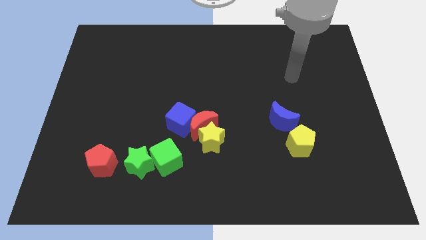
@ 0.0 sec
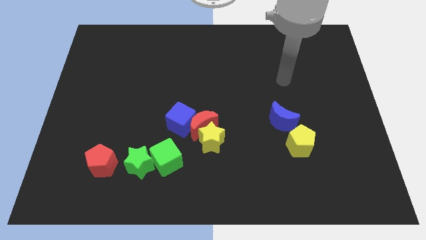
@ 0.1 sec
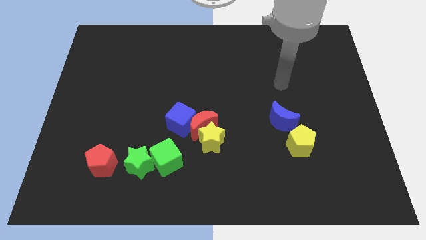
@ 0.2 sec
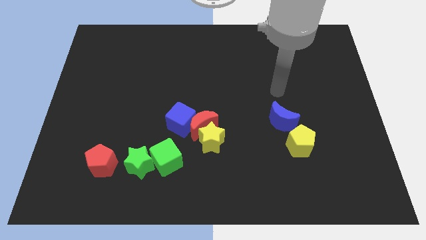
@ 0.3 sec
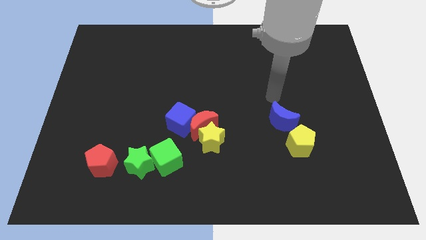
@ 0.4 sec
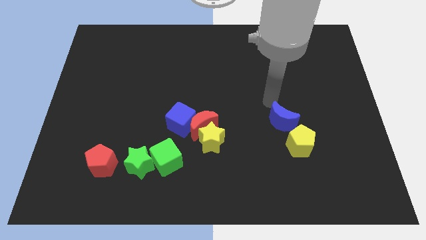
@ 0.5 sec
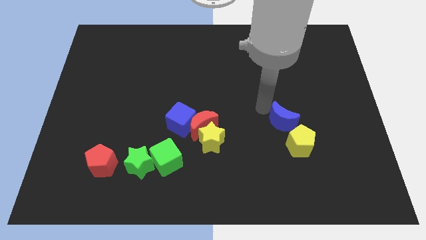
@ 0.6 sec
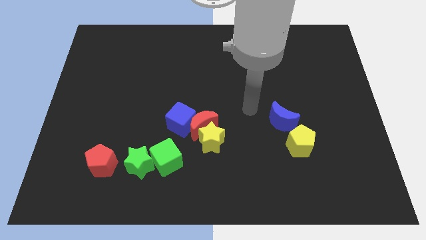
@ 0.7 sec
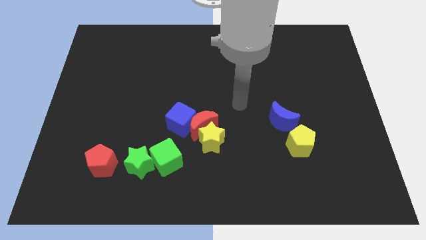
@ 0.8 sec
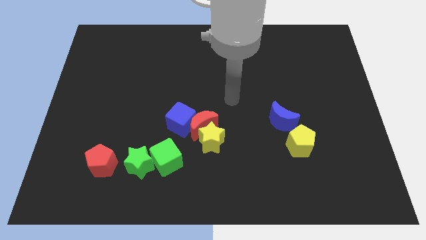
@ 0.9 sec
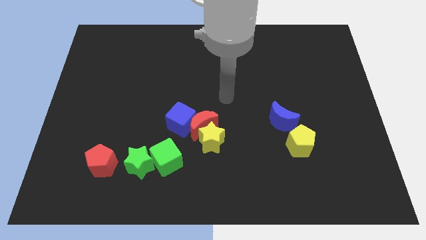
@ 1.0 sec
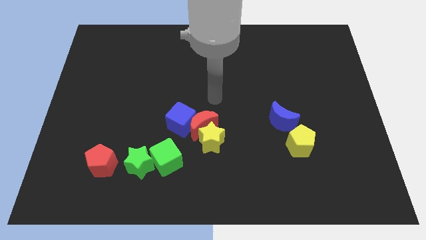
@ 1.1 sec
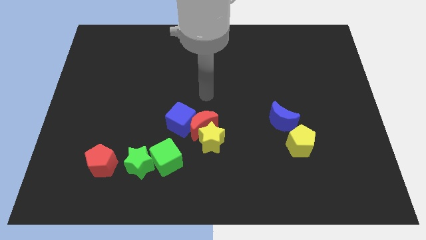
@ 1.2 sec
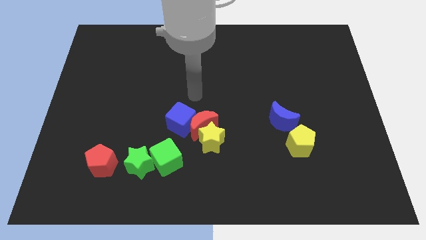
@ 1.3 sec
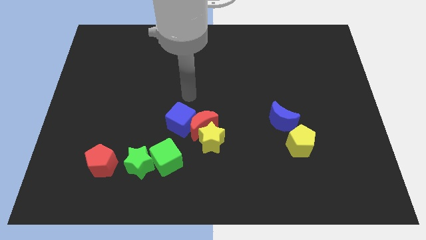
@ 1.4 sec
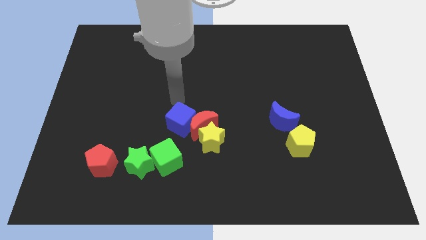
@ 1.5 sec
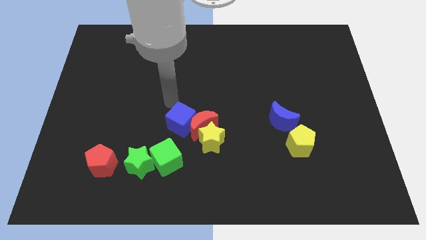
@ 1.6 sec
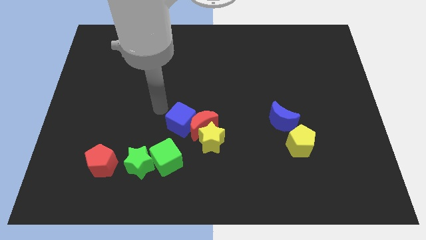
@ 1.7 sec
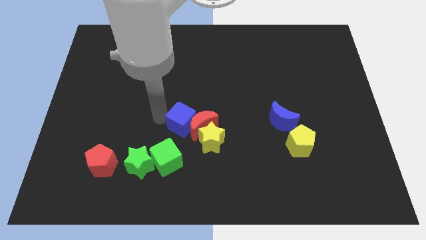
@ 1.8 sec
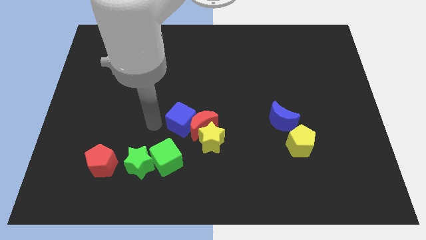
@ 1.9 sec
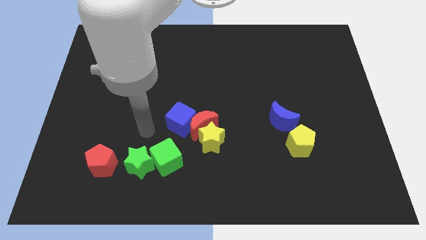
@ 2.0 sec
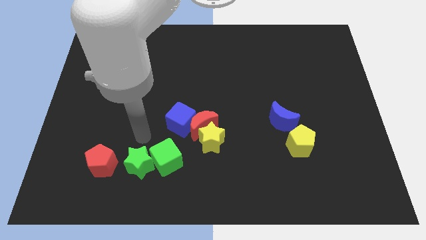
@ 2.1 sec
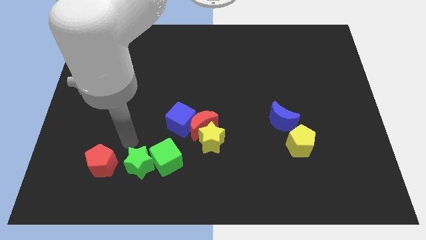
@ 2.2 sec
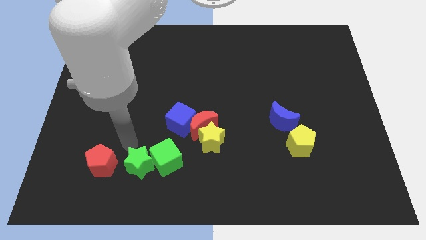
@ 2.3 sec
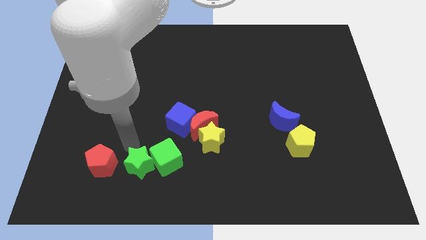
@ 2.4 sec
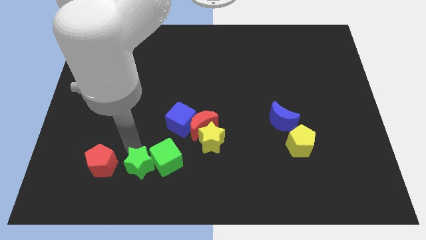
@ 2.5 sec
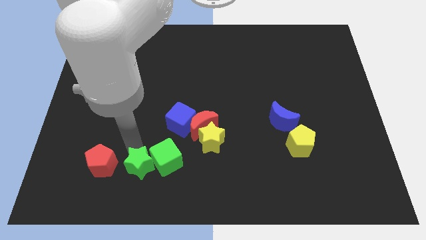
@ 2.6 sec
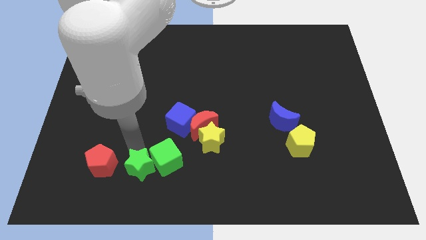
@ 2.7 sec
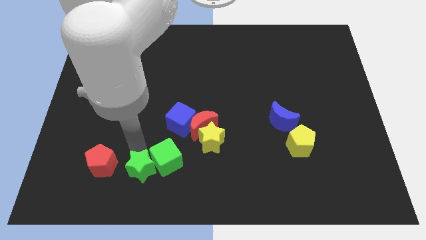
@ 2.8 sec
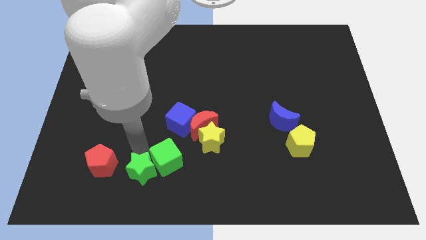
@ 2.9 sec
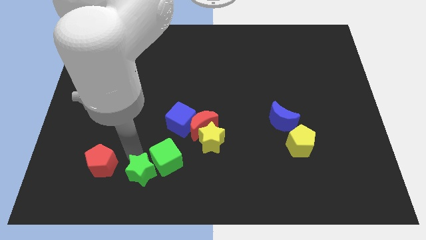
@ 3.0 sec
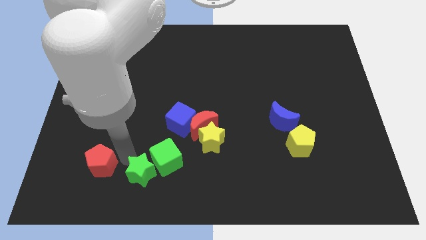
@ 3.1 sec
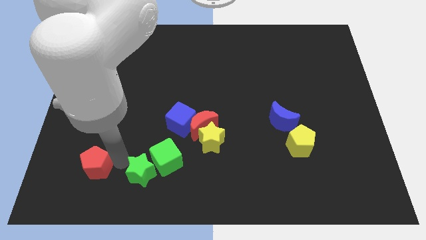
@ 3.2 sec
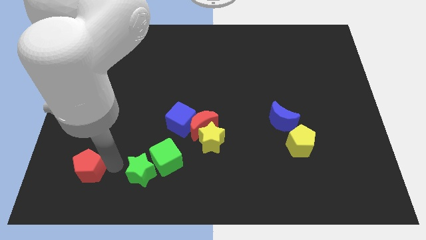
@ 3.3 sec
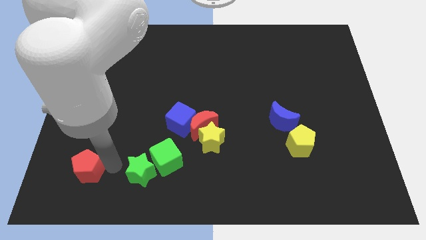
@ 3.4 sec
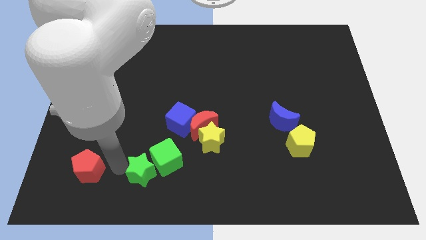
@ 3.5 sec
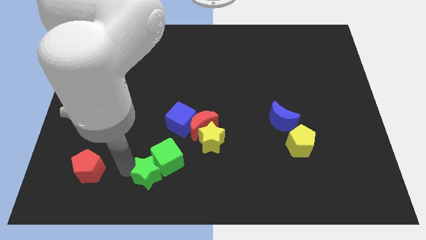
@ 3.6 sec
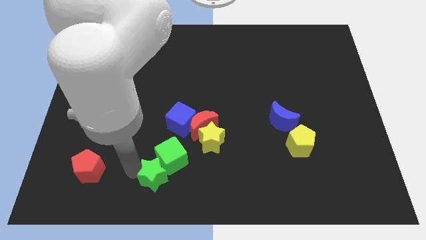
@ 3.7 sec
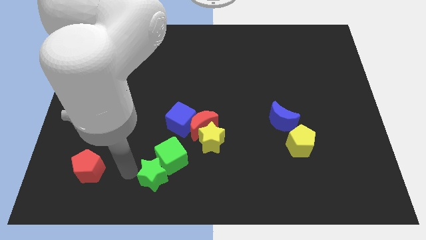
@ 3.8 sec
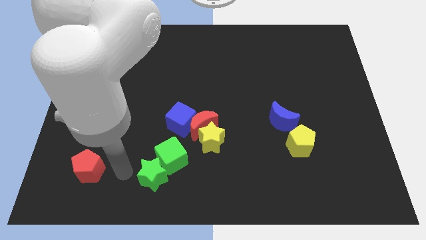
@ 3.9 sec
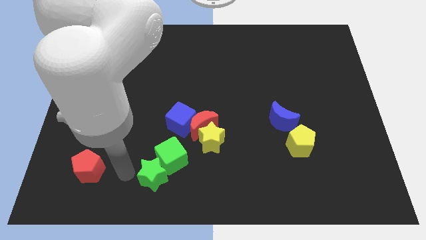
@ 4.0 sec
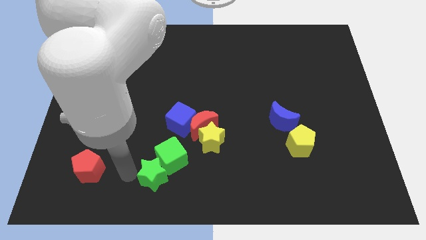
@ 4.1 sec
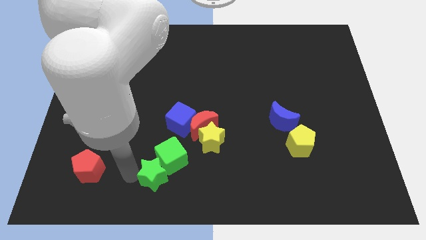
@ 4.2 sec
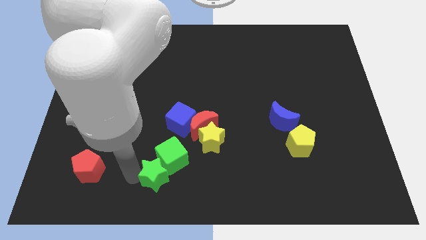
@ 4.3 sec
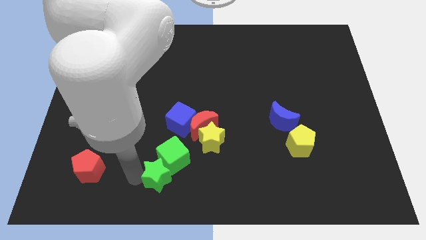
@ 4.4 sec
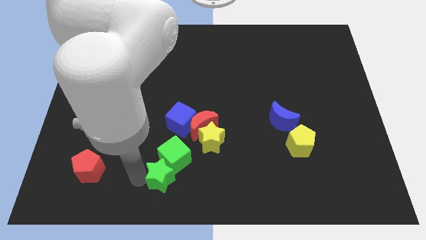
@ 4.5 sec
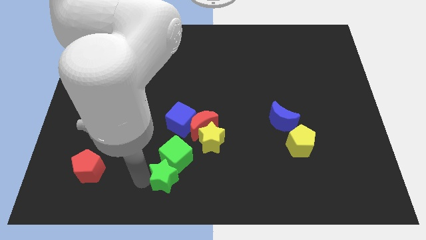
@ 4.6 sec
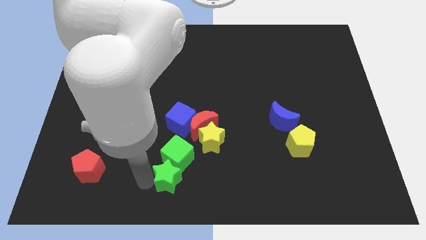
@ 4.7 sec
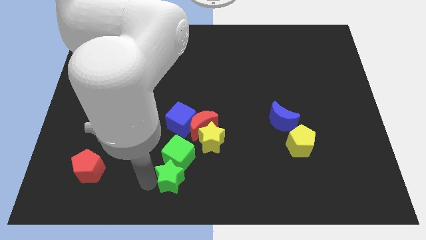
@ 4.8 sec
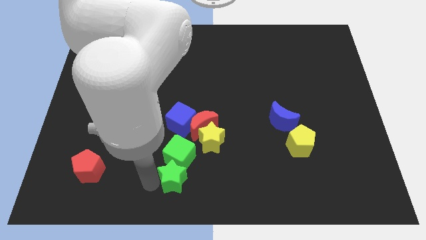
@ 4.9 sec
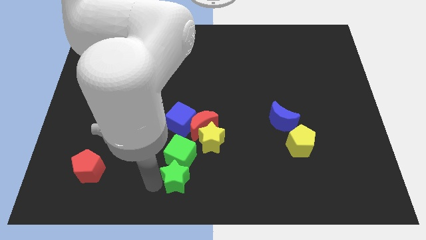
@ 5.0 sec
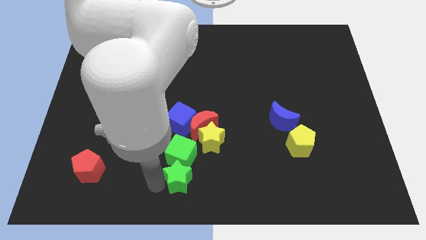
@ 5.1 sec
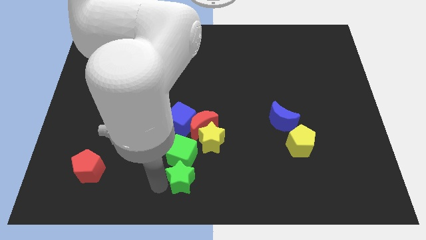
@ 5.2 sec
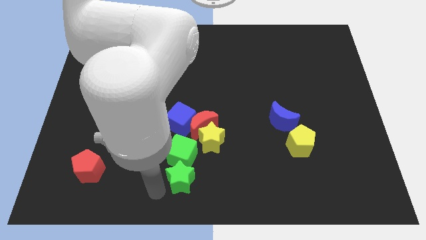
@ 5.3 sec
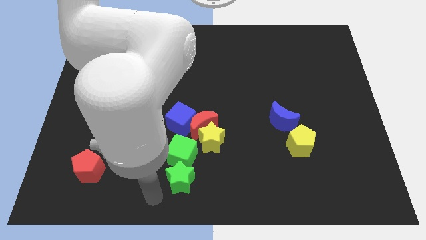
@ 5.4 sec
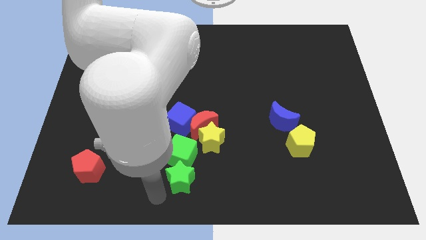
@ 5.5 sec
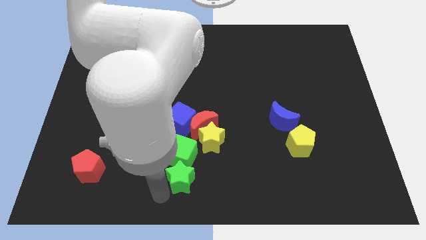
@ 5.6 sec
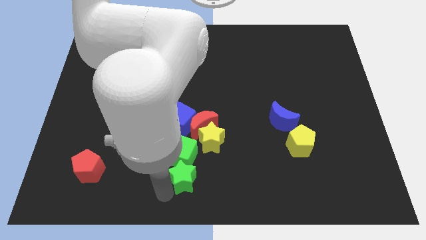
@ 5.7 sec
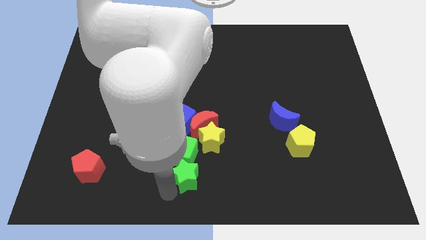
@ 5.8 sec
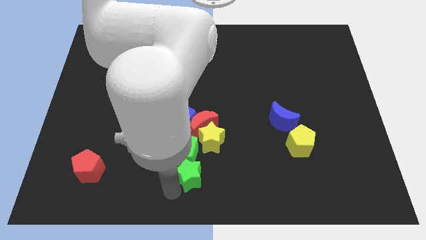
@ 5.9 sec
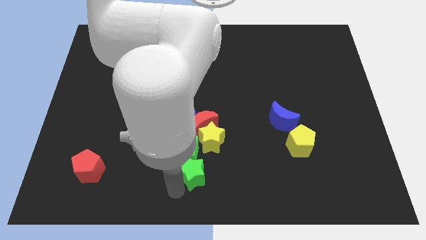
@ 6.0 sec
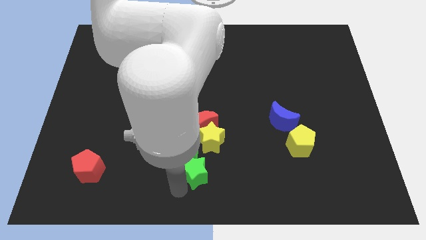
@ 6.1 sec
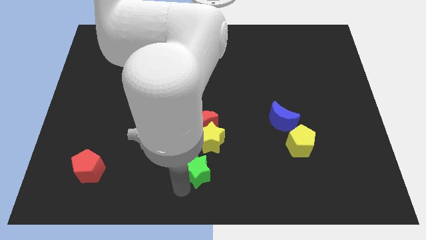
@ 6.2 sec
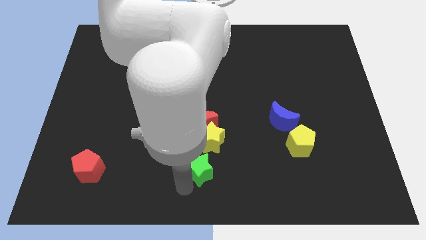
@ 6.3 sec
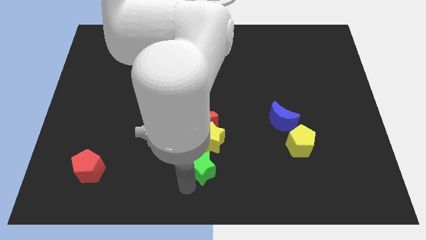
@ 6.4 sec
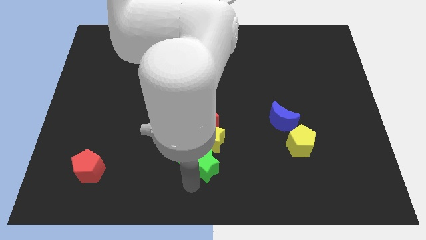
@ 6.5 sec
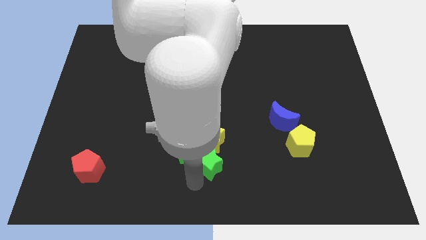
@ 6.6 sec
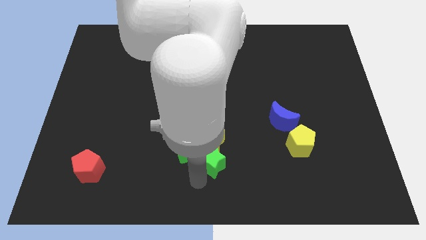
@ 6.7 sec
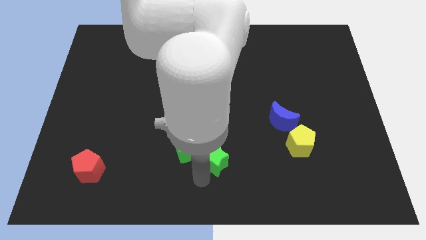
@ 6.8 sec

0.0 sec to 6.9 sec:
push the green star diagonally down and to the right of the red moon
